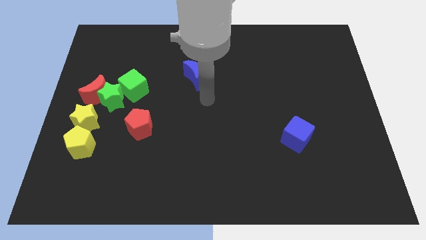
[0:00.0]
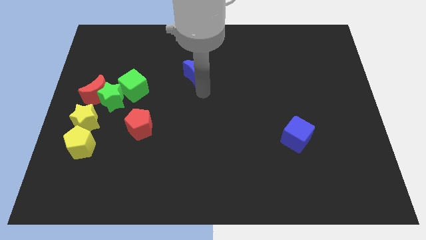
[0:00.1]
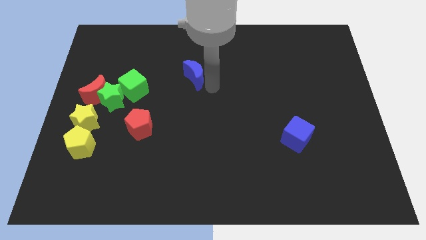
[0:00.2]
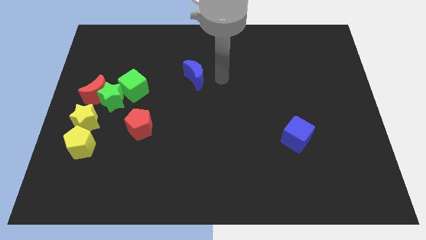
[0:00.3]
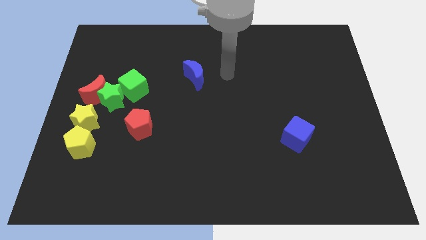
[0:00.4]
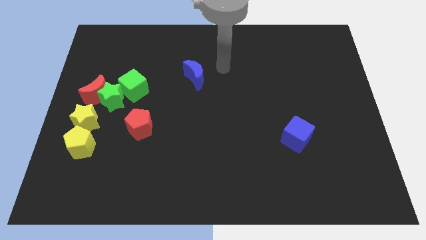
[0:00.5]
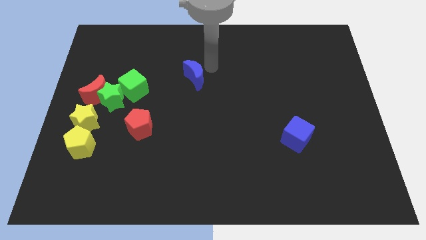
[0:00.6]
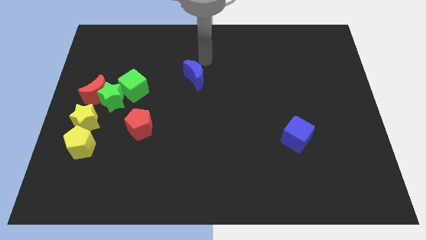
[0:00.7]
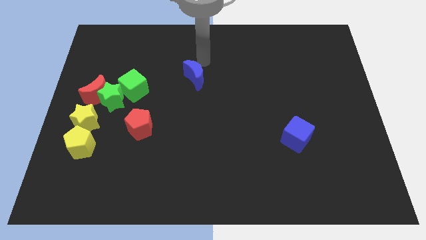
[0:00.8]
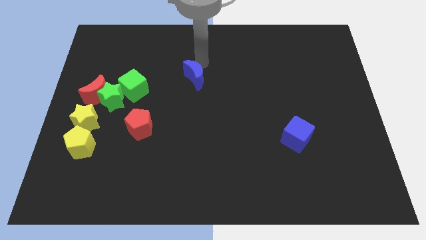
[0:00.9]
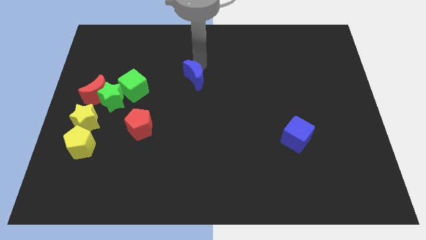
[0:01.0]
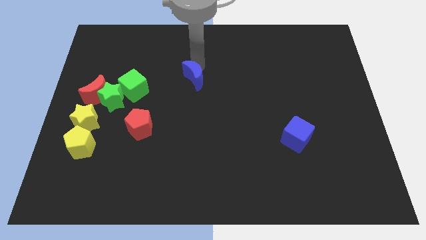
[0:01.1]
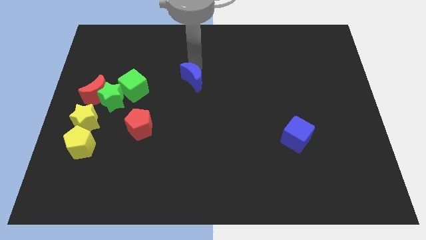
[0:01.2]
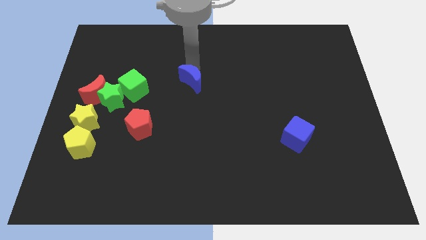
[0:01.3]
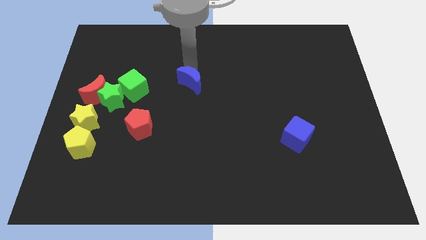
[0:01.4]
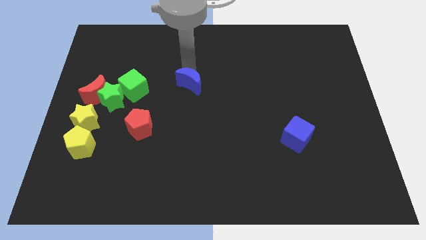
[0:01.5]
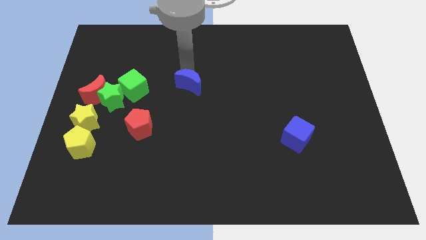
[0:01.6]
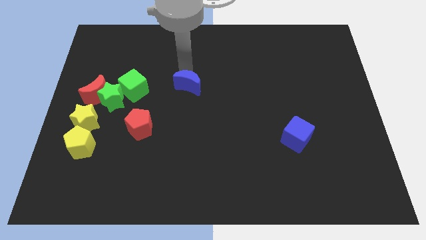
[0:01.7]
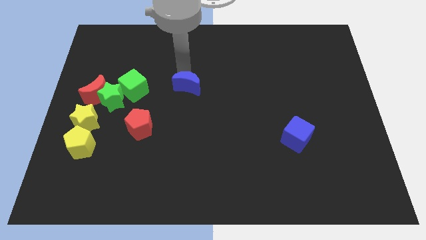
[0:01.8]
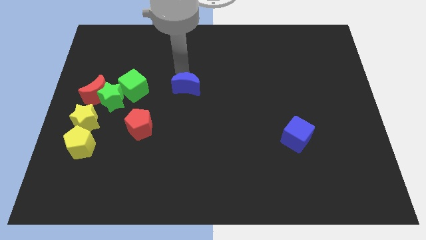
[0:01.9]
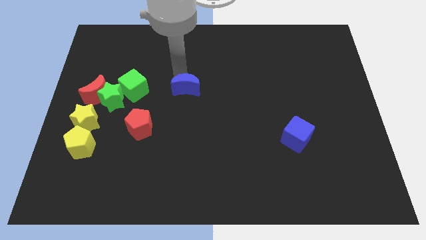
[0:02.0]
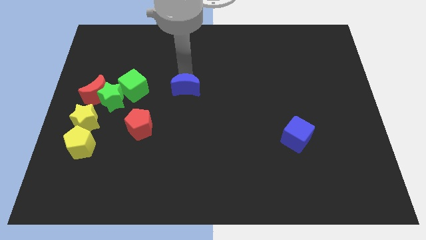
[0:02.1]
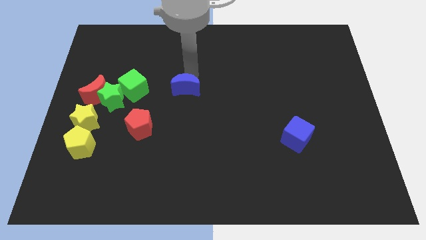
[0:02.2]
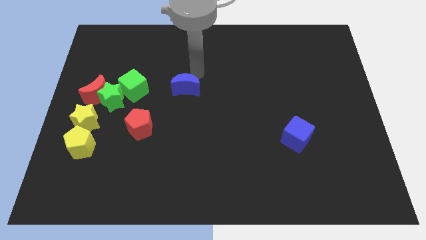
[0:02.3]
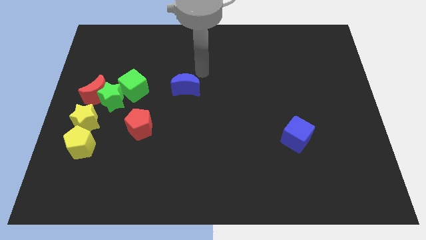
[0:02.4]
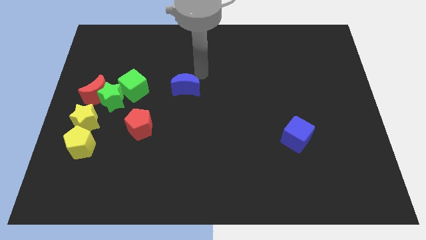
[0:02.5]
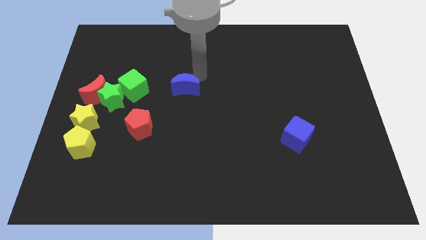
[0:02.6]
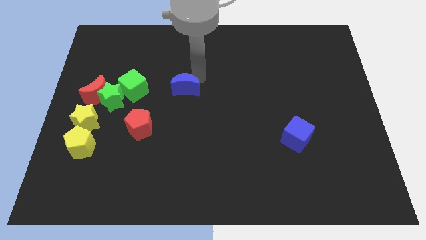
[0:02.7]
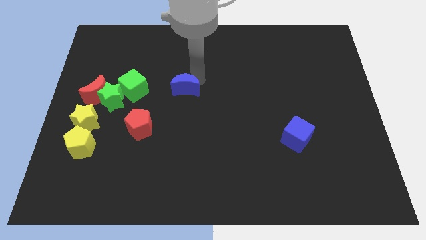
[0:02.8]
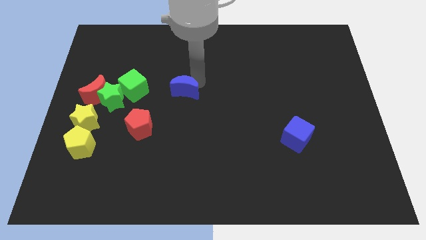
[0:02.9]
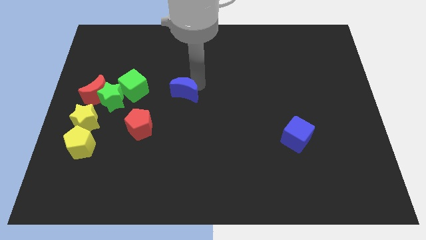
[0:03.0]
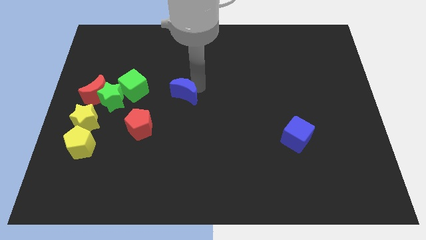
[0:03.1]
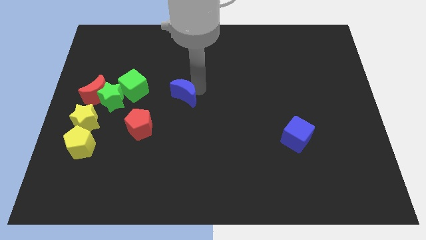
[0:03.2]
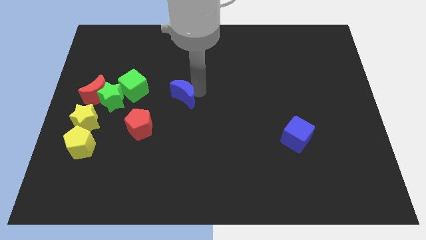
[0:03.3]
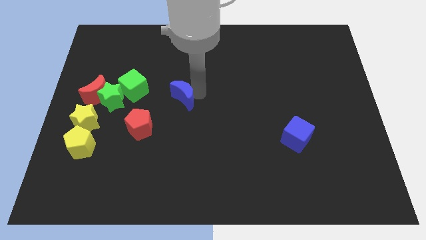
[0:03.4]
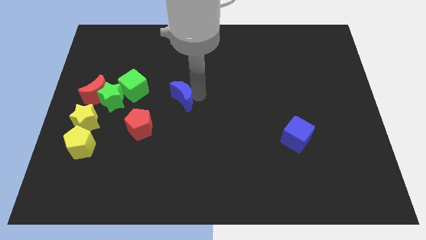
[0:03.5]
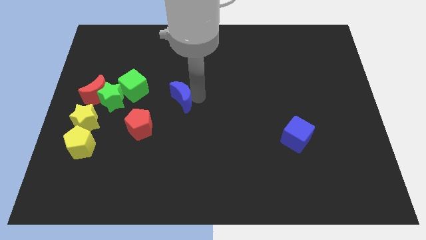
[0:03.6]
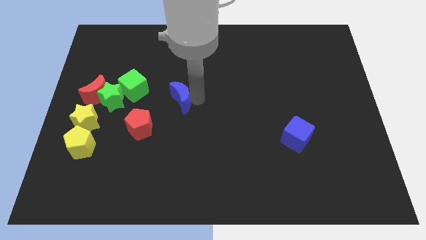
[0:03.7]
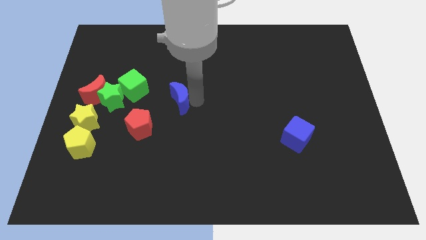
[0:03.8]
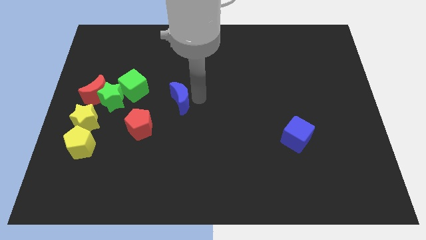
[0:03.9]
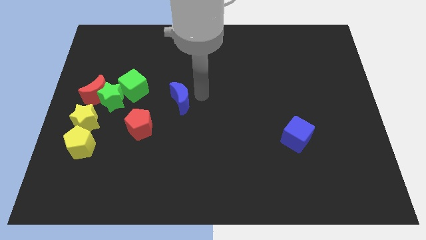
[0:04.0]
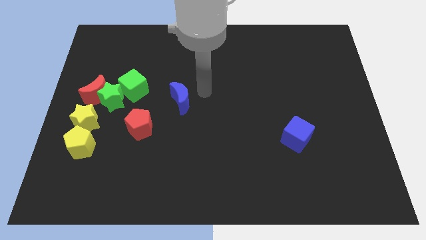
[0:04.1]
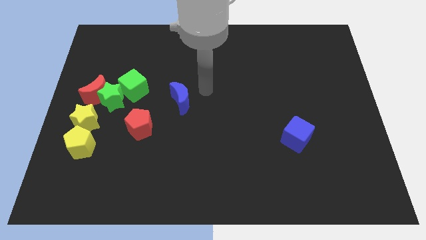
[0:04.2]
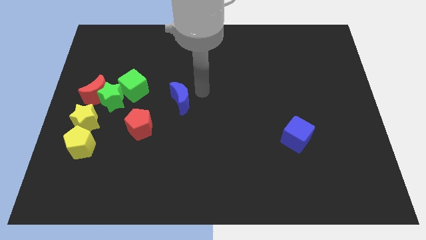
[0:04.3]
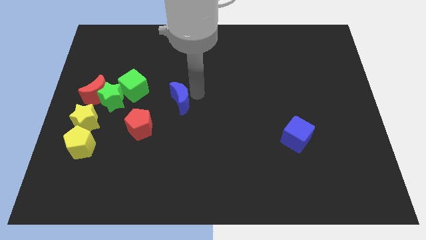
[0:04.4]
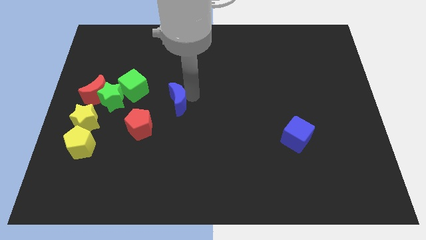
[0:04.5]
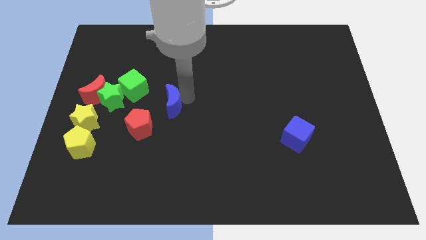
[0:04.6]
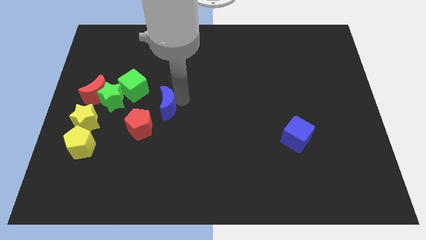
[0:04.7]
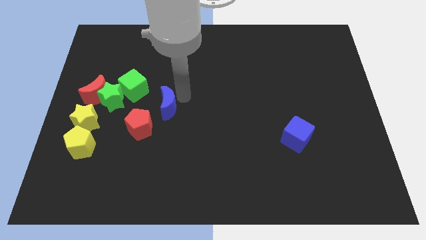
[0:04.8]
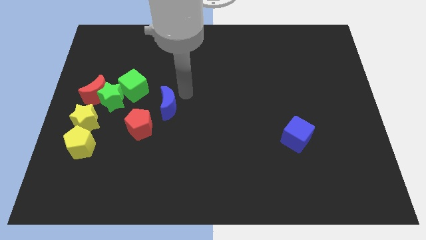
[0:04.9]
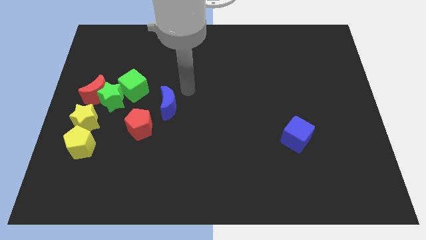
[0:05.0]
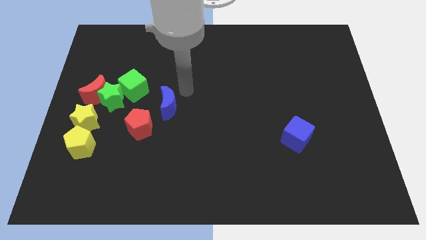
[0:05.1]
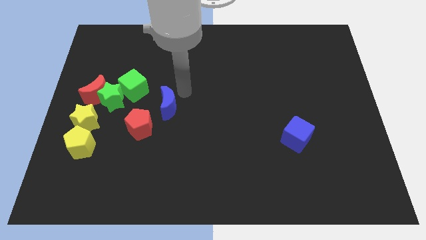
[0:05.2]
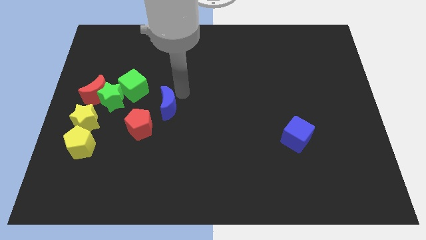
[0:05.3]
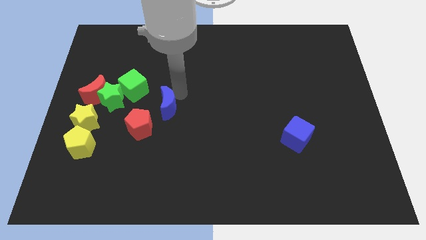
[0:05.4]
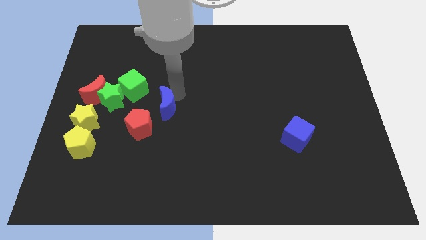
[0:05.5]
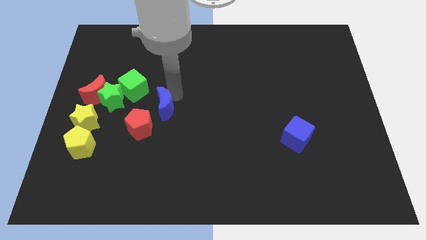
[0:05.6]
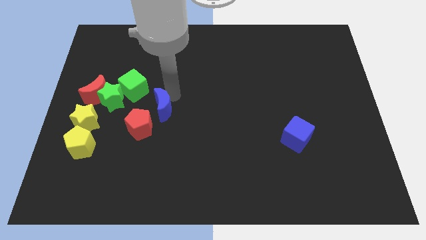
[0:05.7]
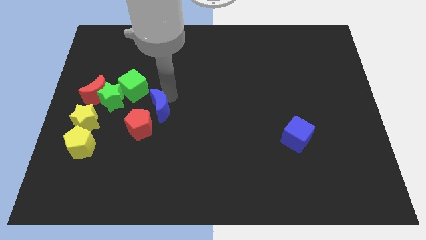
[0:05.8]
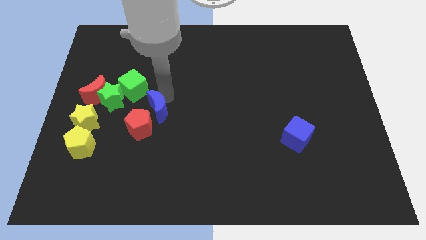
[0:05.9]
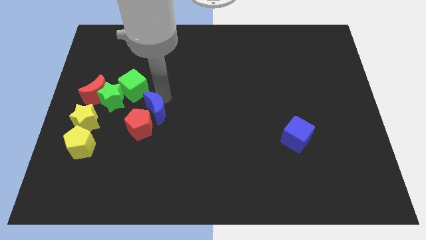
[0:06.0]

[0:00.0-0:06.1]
push the blue moon to the red pentagon
